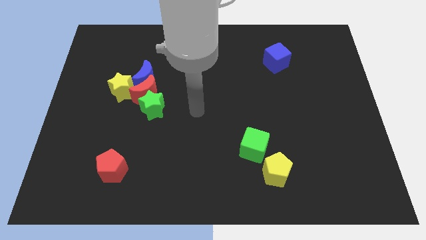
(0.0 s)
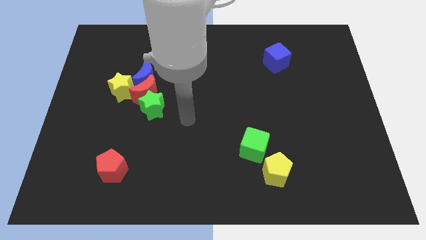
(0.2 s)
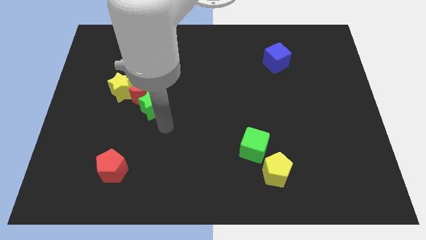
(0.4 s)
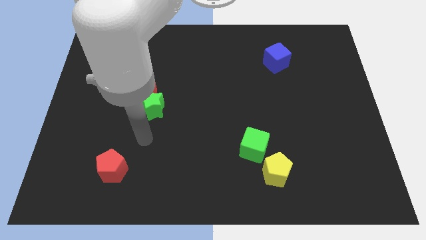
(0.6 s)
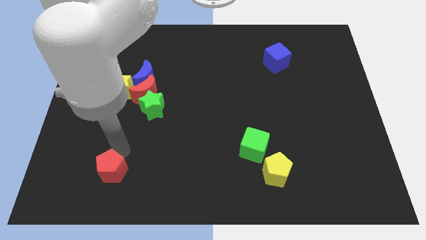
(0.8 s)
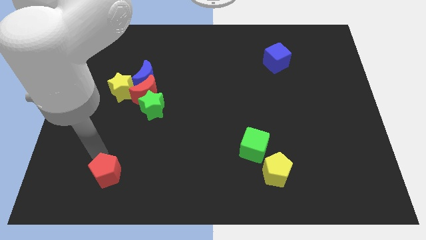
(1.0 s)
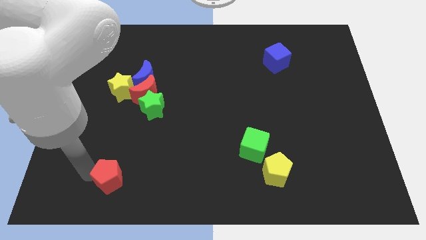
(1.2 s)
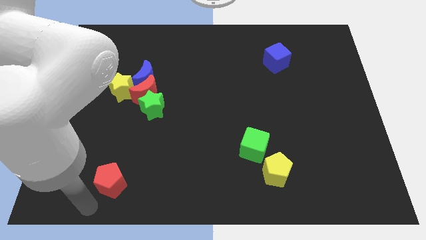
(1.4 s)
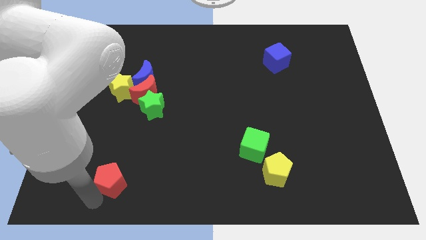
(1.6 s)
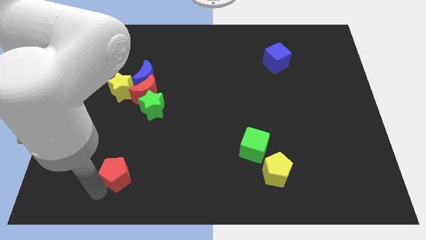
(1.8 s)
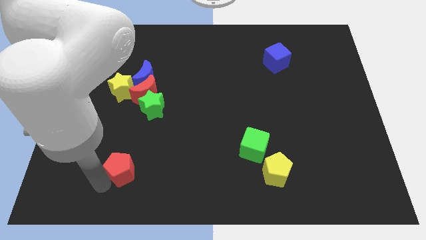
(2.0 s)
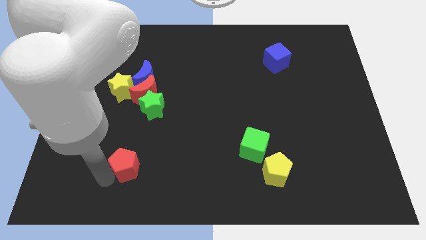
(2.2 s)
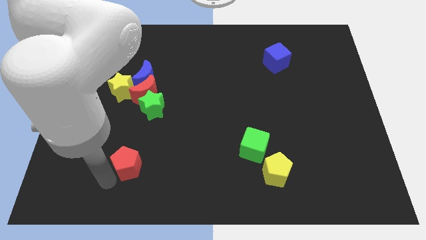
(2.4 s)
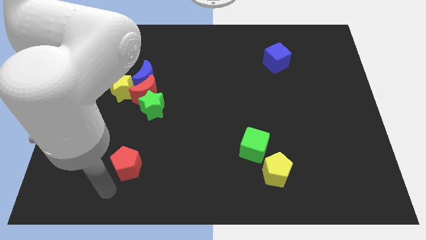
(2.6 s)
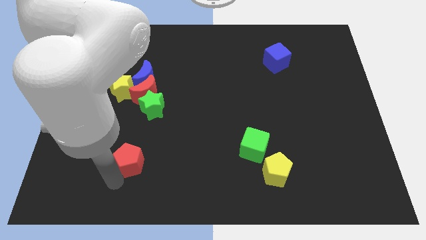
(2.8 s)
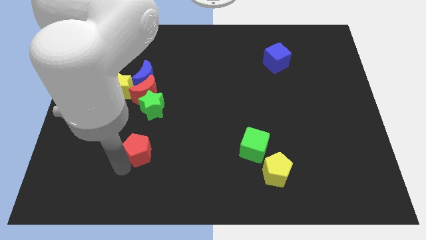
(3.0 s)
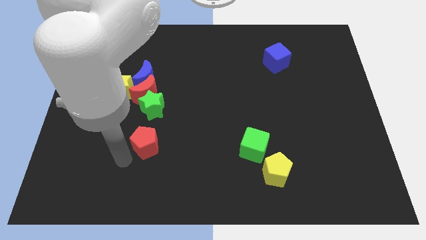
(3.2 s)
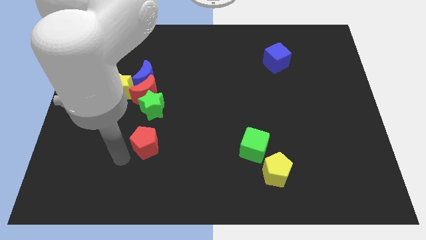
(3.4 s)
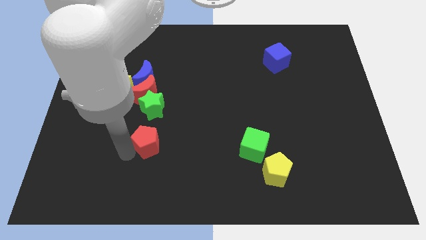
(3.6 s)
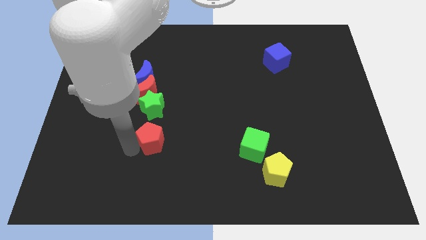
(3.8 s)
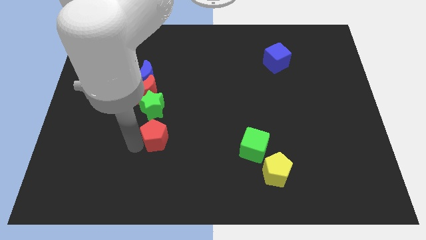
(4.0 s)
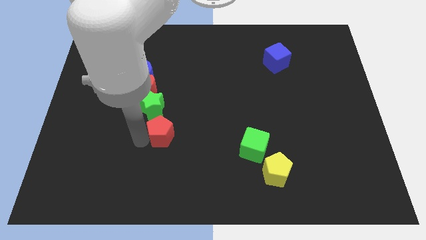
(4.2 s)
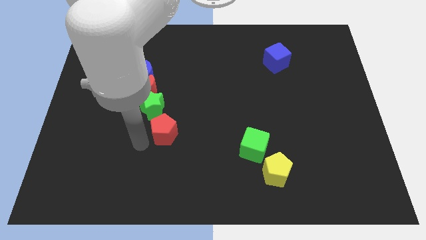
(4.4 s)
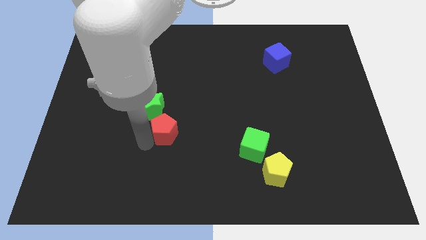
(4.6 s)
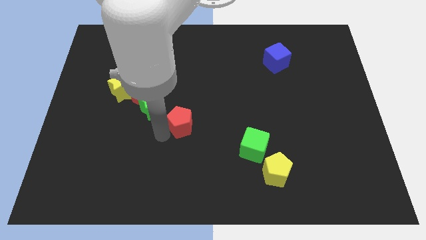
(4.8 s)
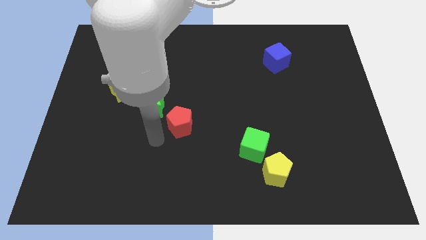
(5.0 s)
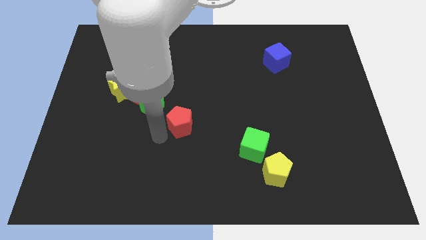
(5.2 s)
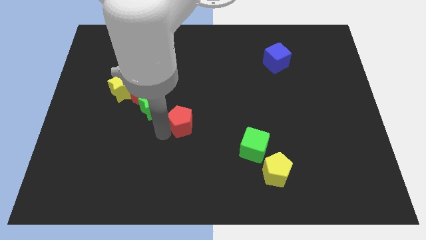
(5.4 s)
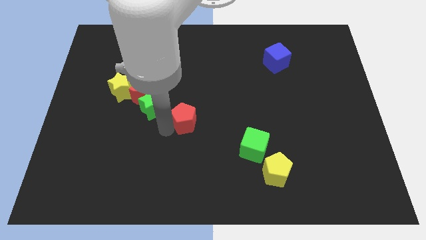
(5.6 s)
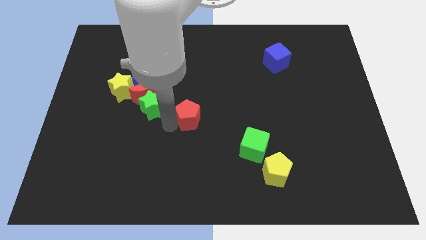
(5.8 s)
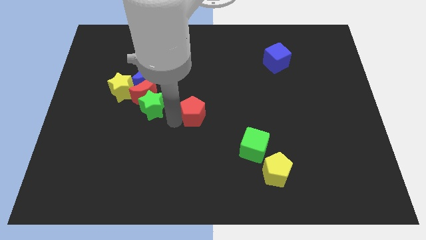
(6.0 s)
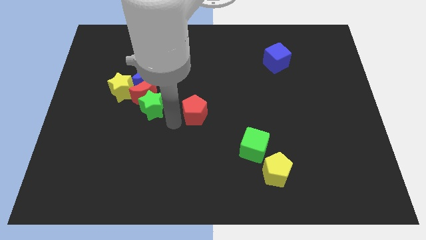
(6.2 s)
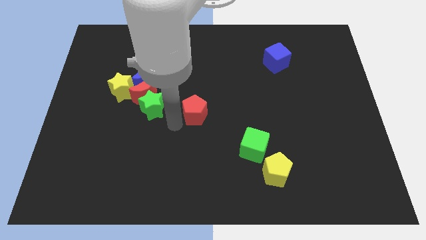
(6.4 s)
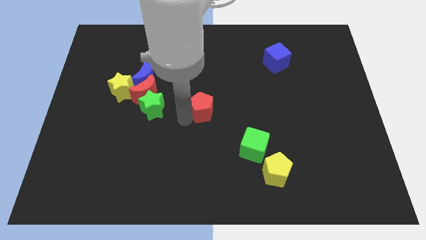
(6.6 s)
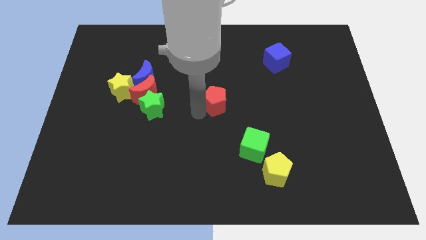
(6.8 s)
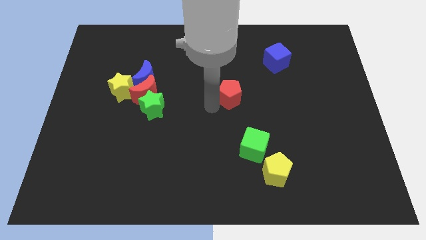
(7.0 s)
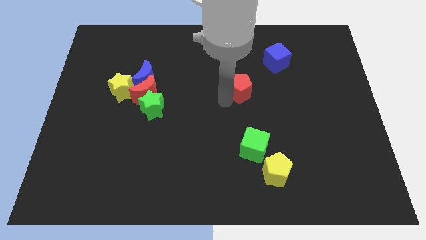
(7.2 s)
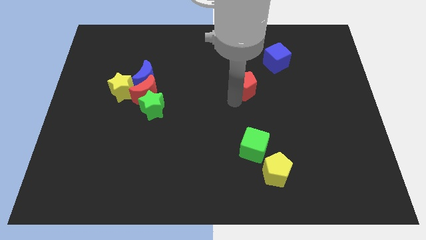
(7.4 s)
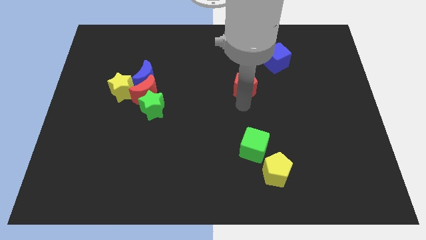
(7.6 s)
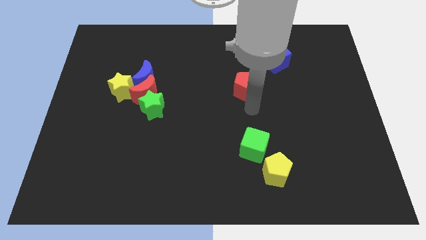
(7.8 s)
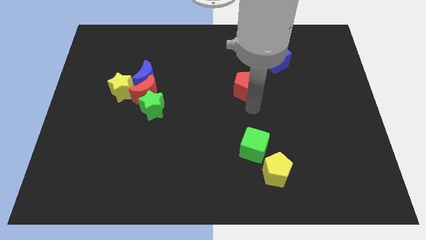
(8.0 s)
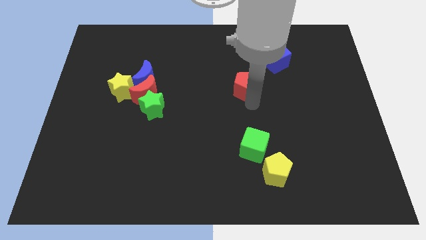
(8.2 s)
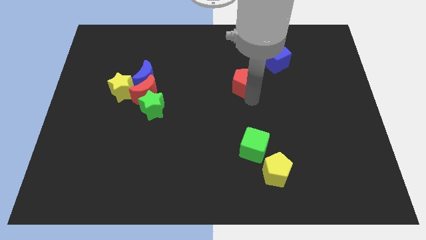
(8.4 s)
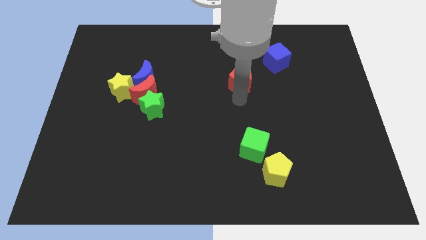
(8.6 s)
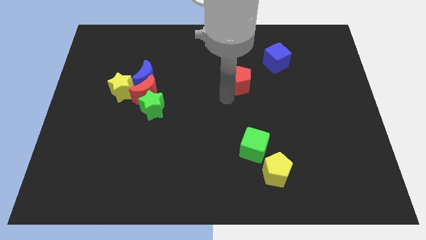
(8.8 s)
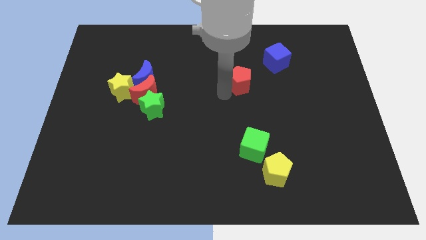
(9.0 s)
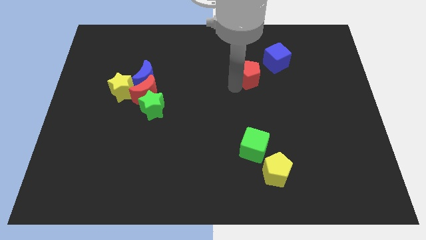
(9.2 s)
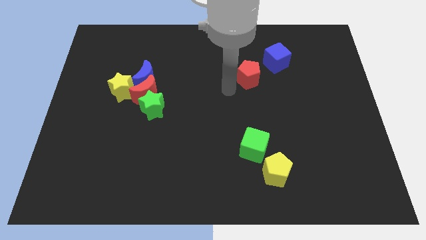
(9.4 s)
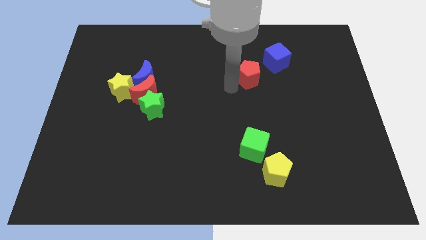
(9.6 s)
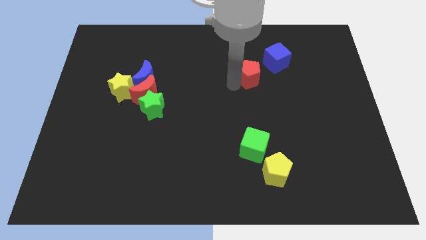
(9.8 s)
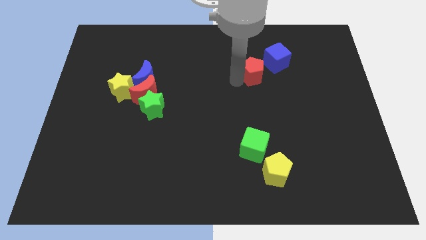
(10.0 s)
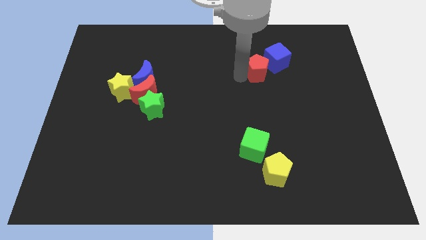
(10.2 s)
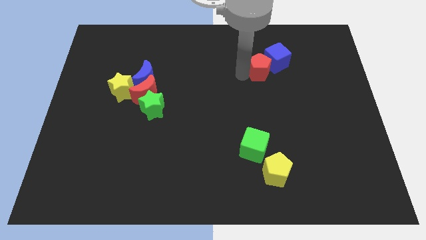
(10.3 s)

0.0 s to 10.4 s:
slide the red pentagon towards the blue cube

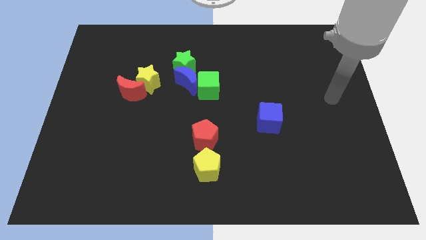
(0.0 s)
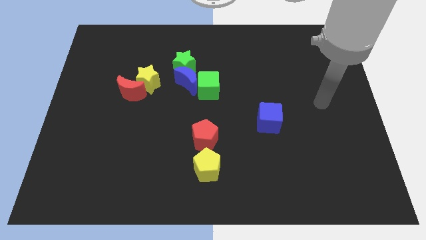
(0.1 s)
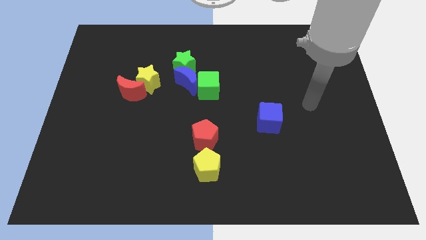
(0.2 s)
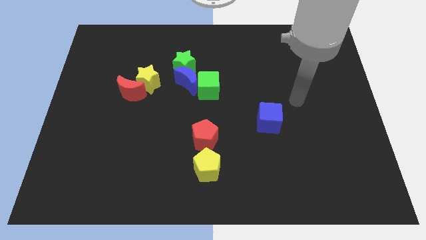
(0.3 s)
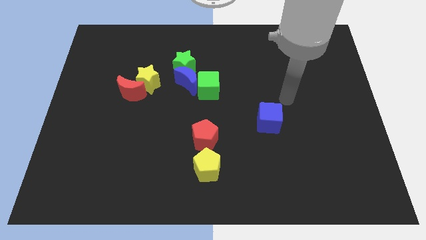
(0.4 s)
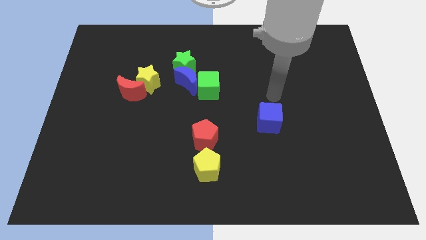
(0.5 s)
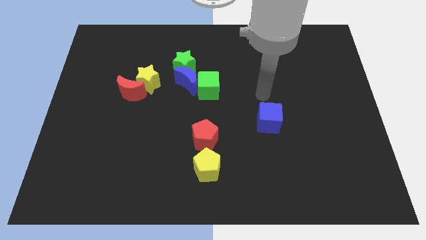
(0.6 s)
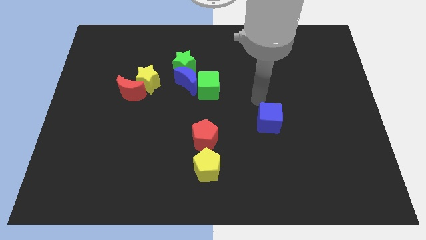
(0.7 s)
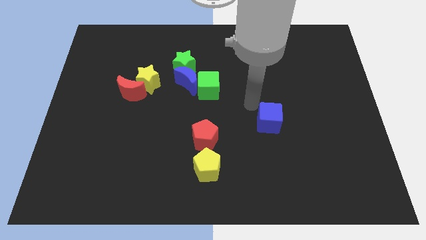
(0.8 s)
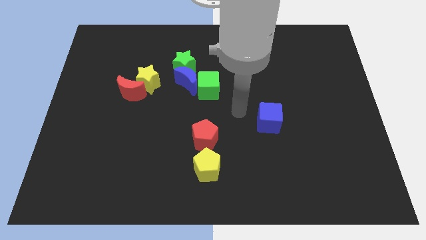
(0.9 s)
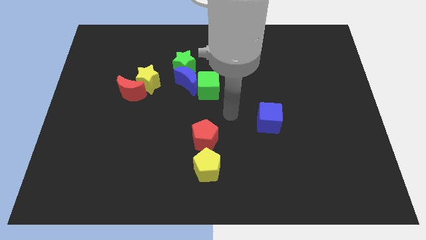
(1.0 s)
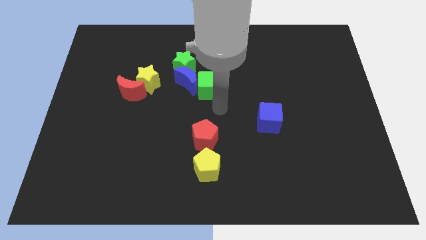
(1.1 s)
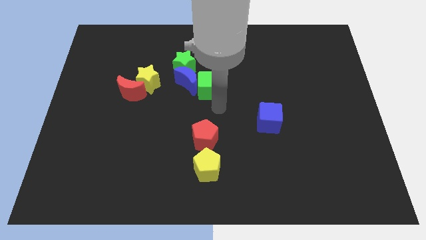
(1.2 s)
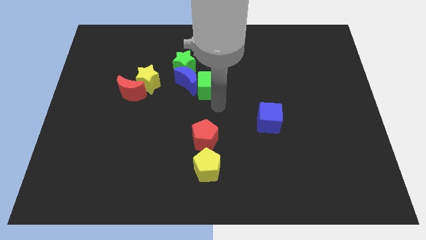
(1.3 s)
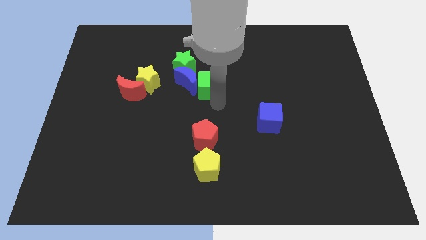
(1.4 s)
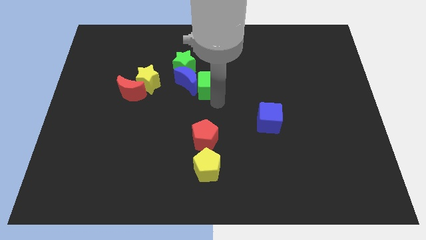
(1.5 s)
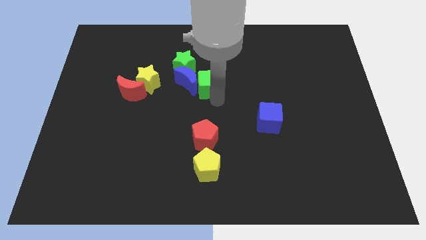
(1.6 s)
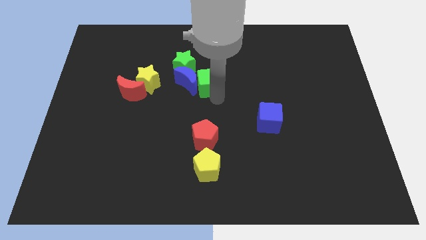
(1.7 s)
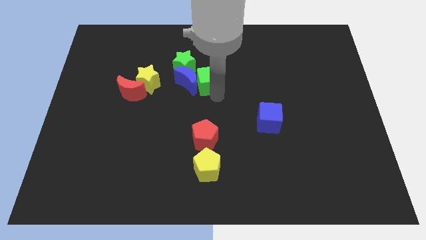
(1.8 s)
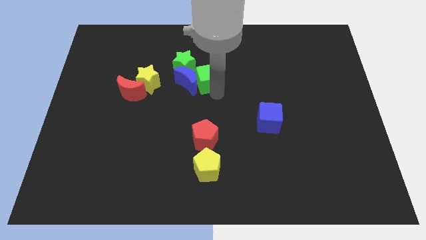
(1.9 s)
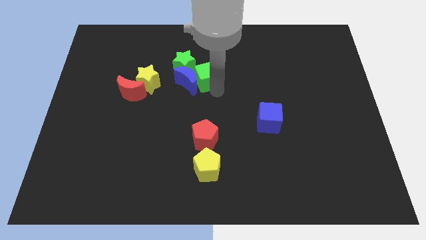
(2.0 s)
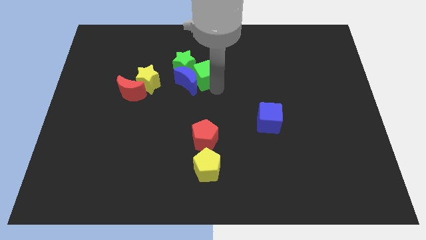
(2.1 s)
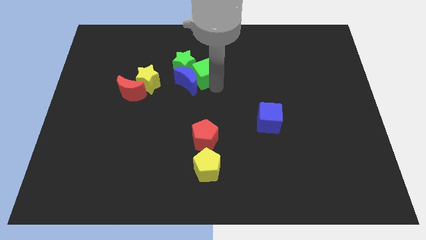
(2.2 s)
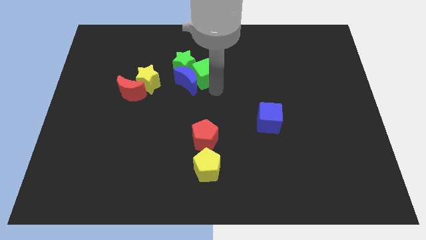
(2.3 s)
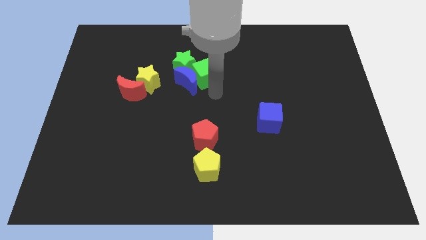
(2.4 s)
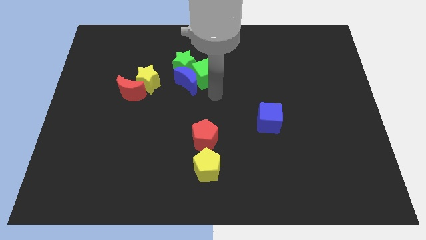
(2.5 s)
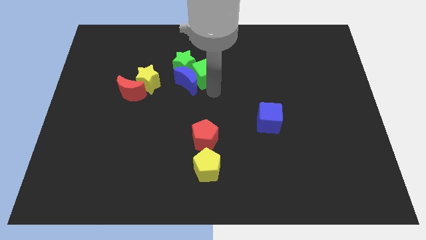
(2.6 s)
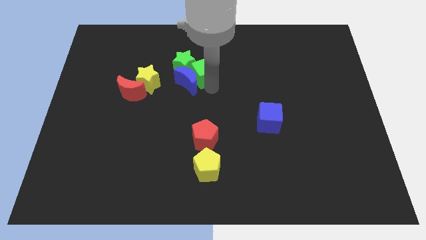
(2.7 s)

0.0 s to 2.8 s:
slide the green cube next to the green star
